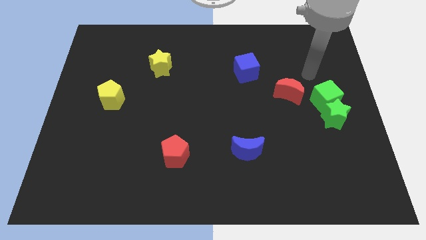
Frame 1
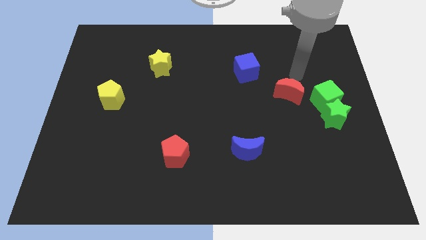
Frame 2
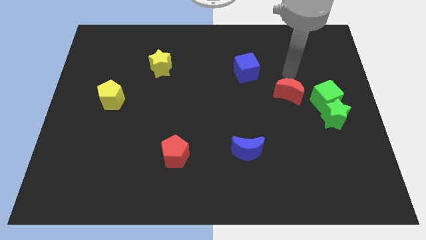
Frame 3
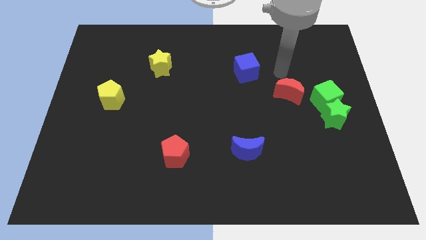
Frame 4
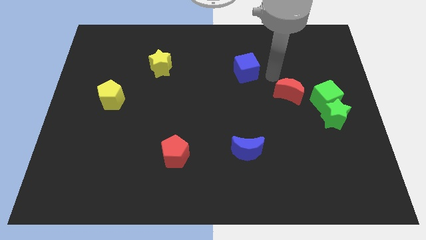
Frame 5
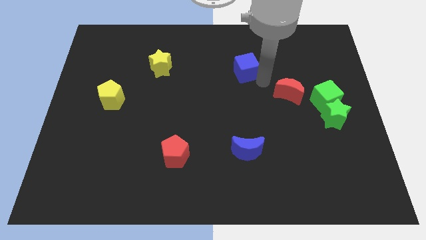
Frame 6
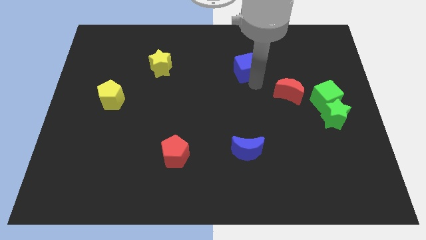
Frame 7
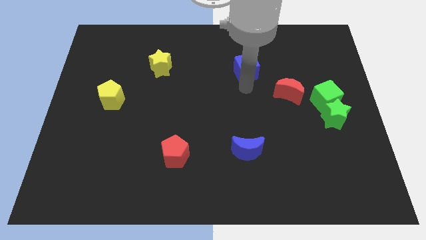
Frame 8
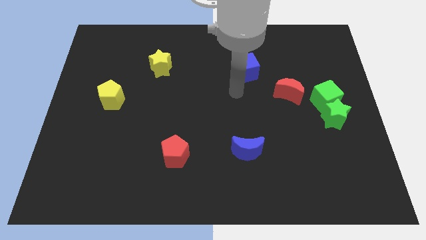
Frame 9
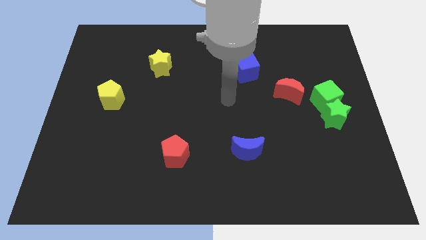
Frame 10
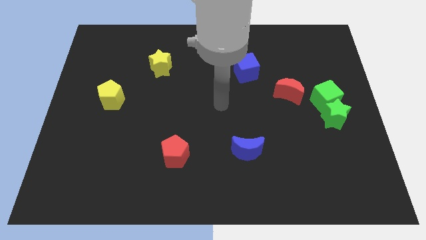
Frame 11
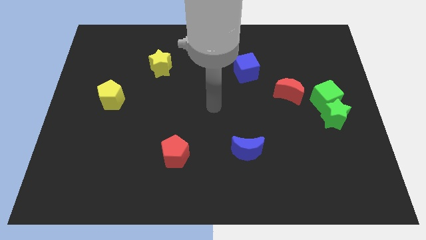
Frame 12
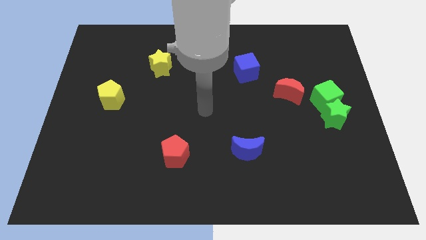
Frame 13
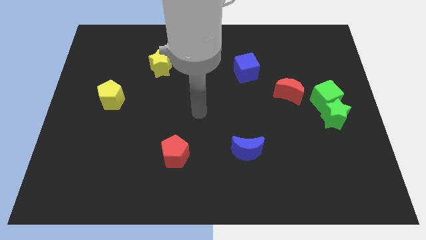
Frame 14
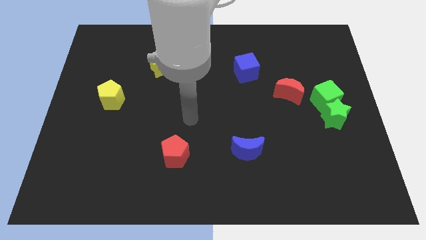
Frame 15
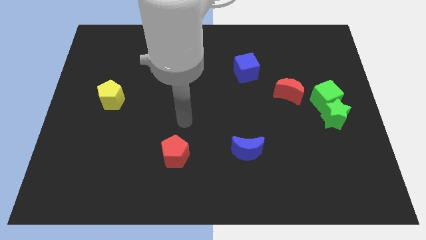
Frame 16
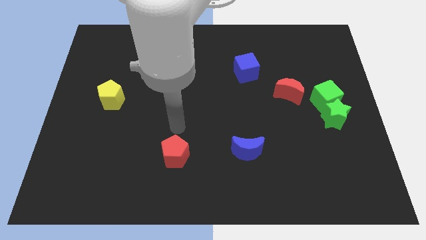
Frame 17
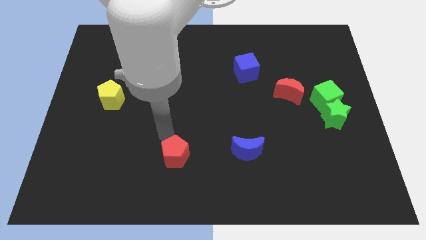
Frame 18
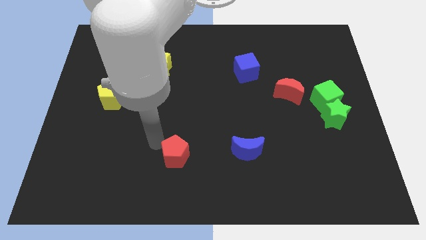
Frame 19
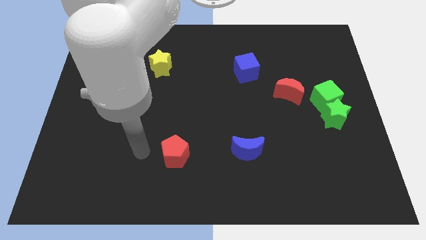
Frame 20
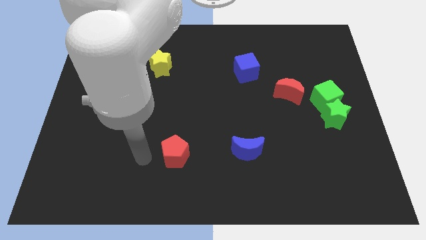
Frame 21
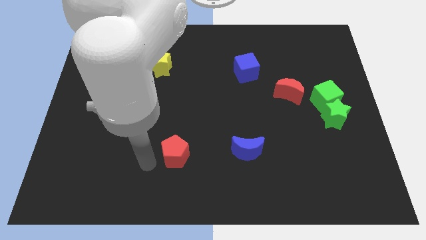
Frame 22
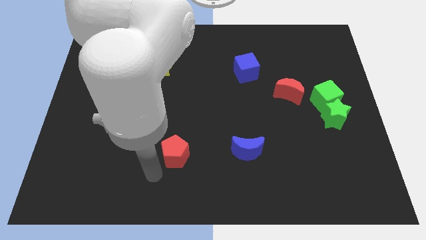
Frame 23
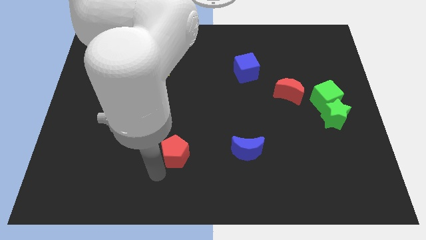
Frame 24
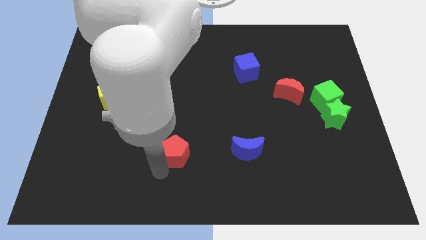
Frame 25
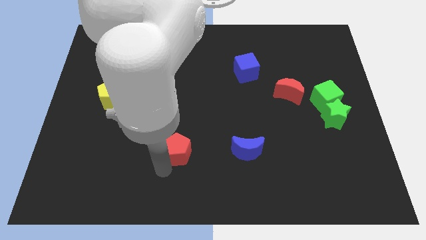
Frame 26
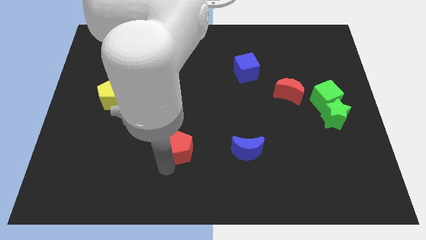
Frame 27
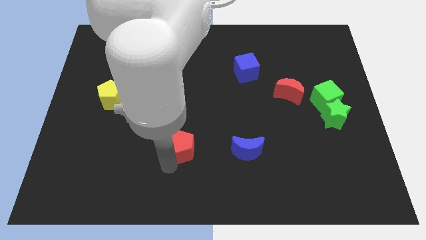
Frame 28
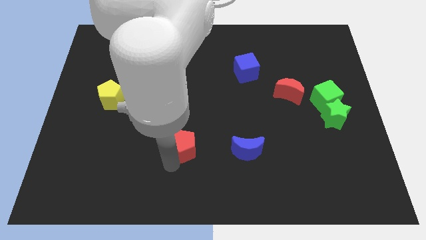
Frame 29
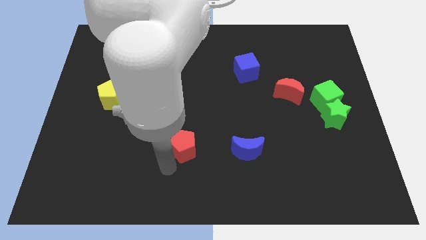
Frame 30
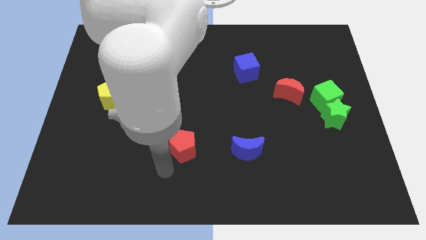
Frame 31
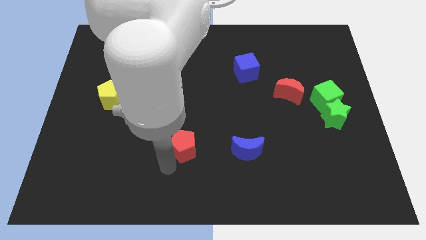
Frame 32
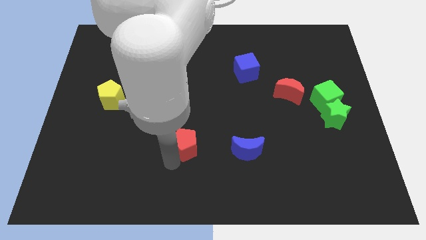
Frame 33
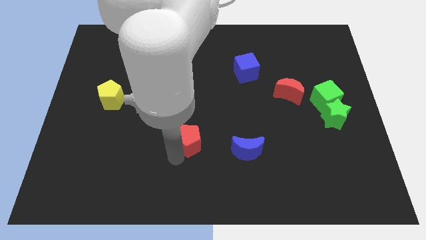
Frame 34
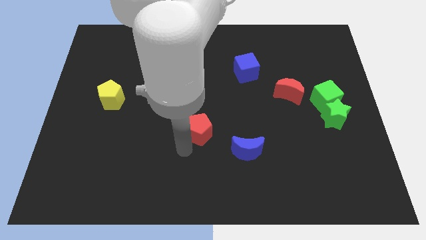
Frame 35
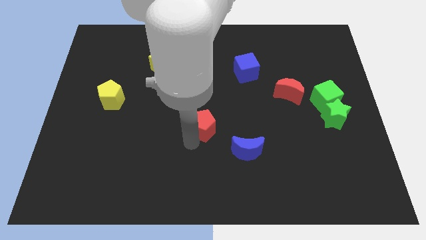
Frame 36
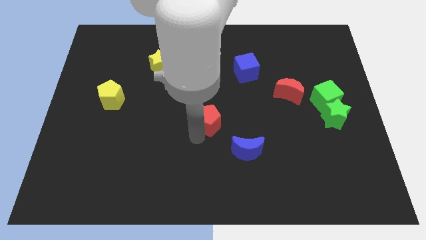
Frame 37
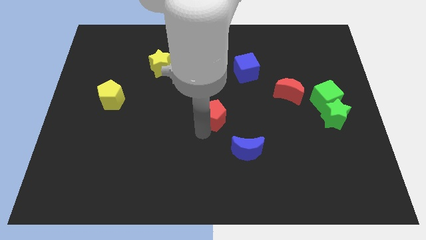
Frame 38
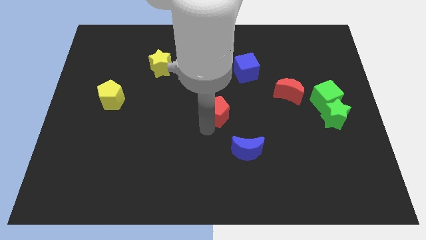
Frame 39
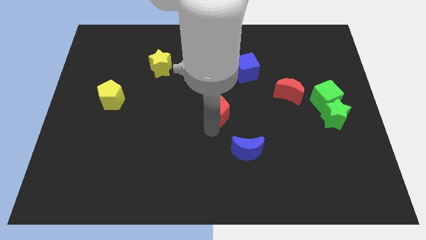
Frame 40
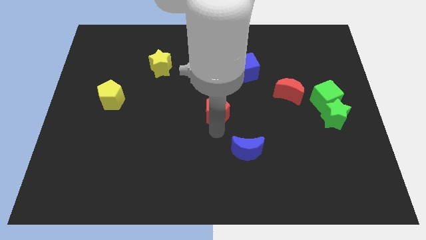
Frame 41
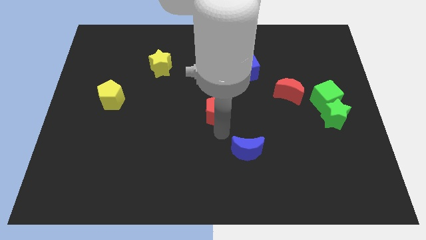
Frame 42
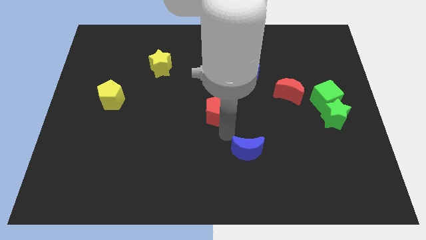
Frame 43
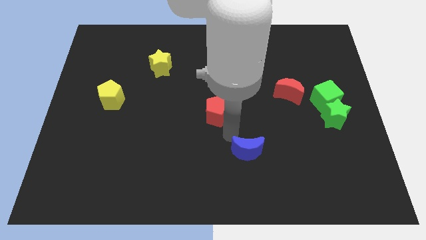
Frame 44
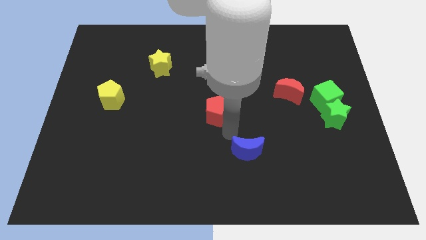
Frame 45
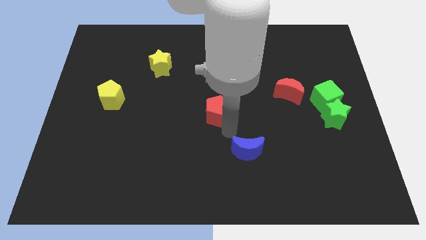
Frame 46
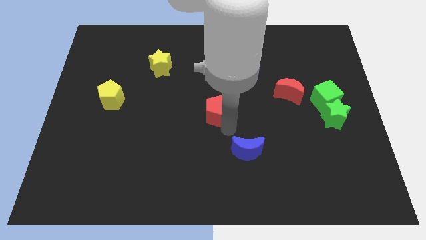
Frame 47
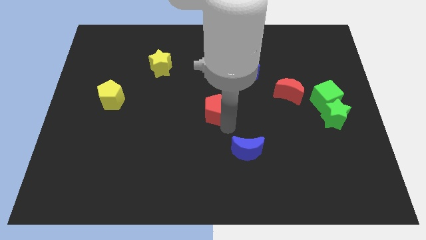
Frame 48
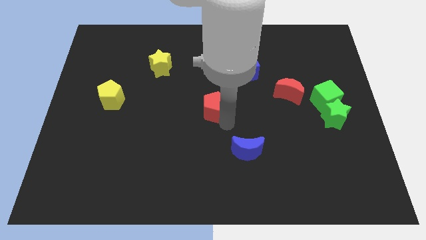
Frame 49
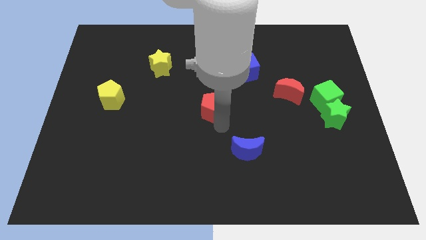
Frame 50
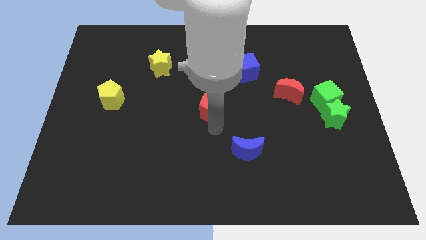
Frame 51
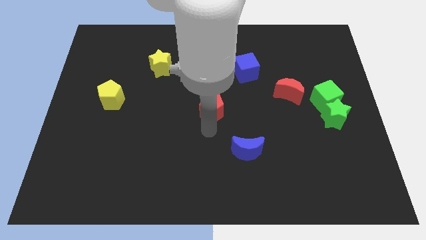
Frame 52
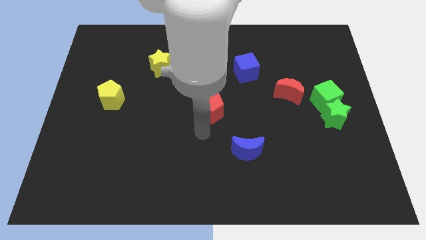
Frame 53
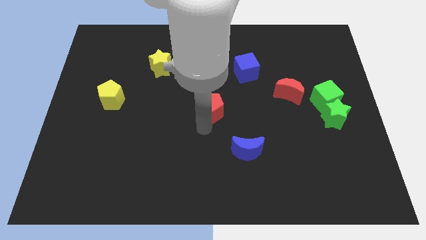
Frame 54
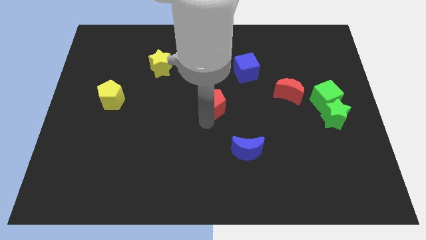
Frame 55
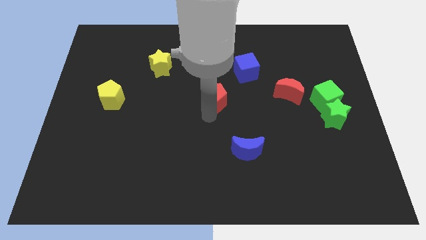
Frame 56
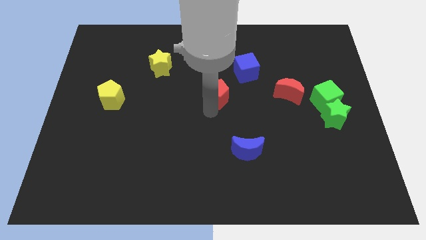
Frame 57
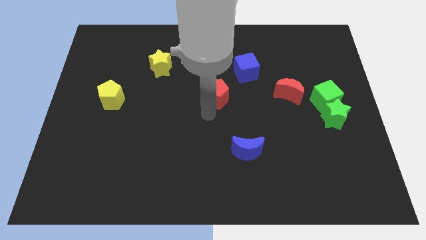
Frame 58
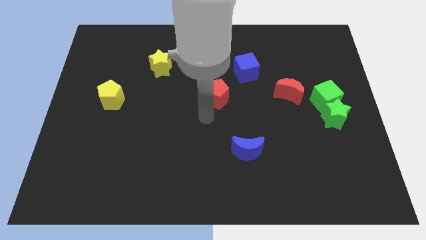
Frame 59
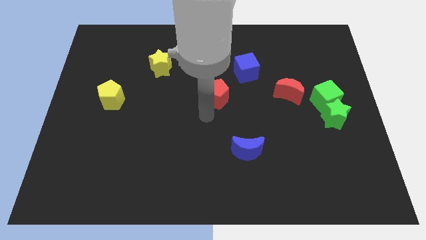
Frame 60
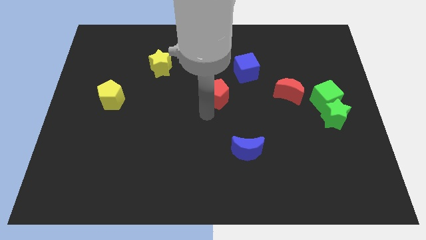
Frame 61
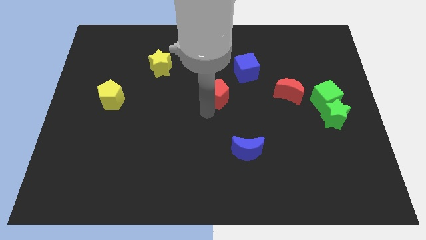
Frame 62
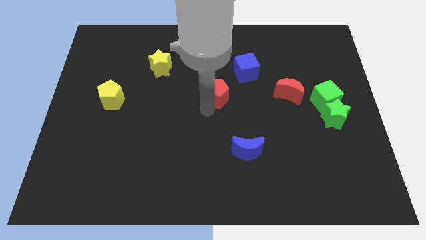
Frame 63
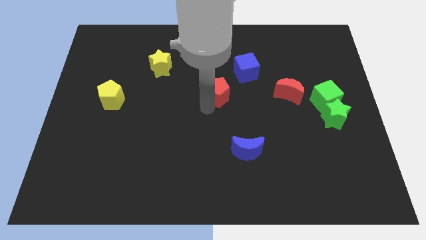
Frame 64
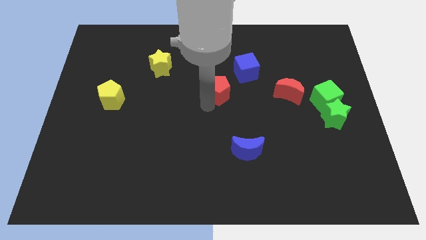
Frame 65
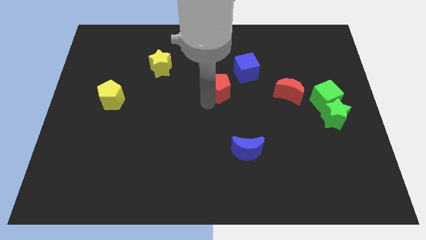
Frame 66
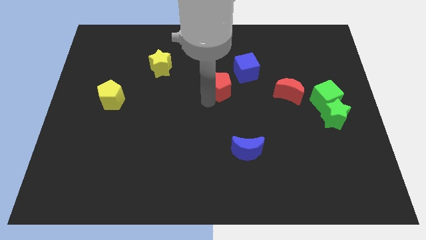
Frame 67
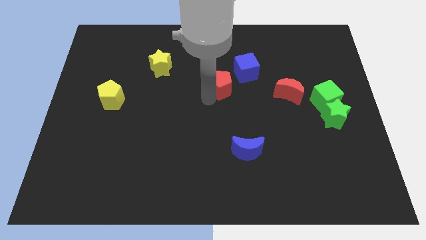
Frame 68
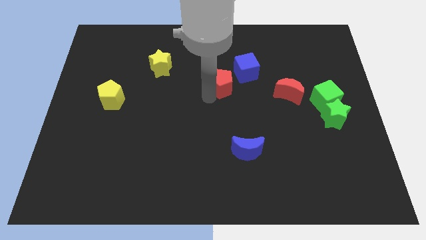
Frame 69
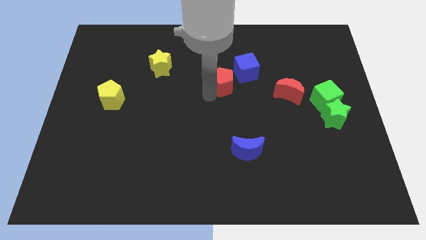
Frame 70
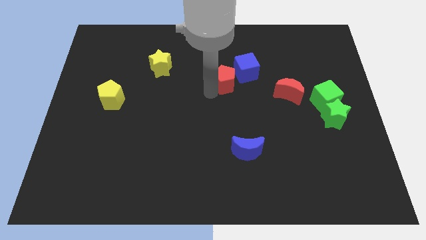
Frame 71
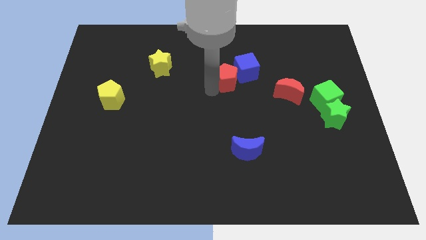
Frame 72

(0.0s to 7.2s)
put the red pentagon to the blue cube
